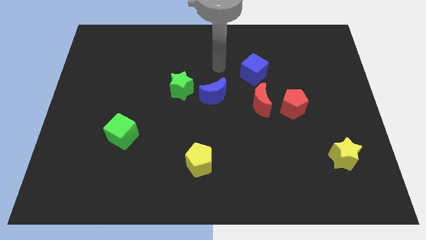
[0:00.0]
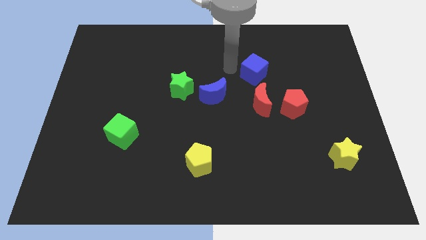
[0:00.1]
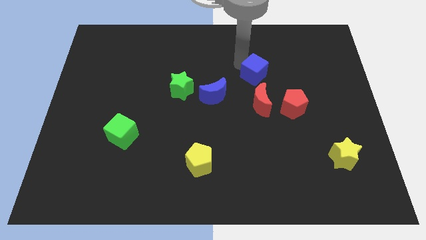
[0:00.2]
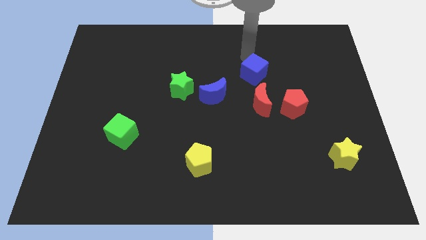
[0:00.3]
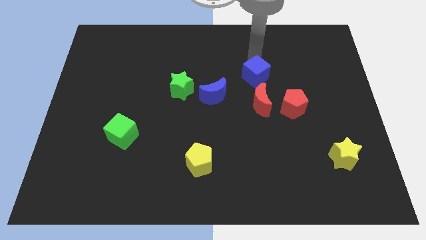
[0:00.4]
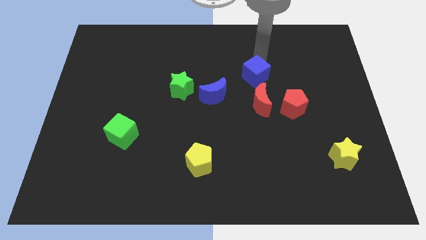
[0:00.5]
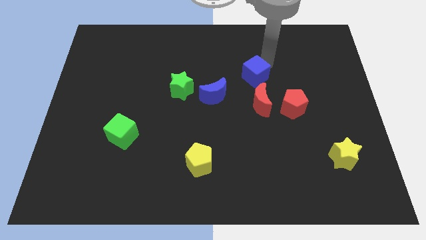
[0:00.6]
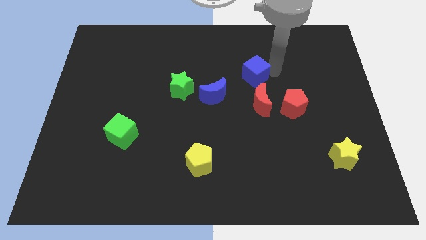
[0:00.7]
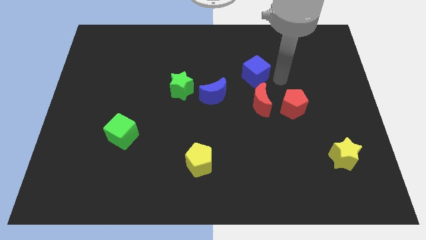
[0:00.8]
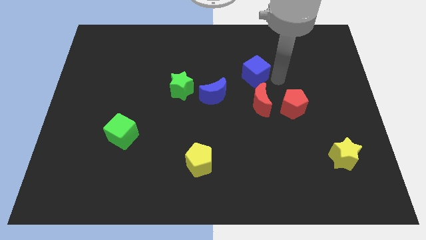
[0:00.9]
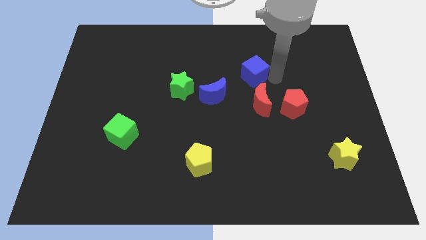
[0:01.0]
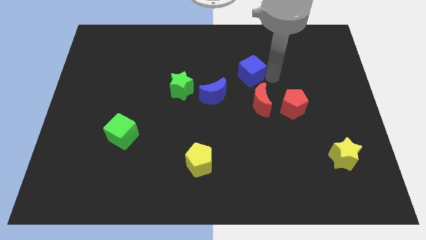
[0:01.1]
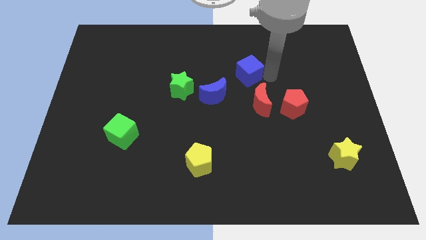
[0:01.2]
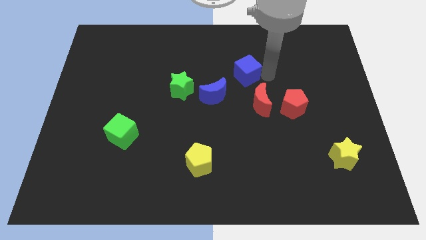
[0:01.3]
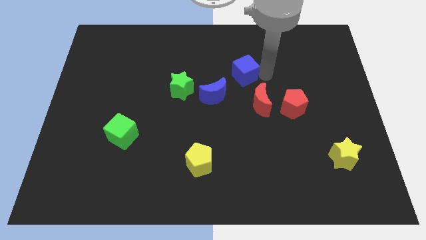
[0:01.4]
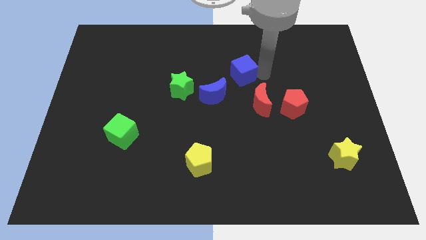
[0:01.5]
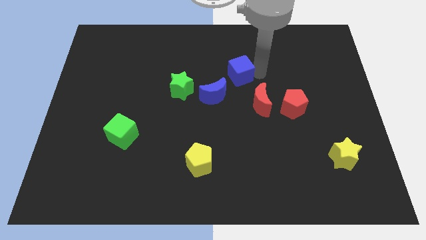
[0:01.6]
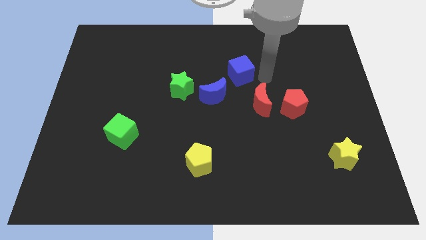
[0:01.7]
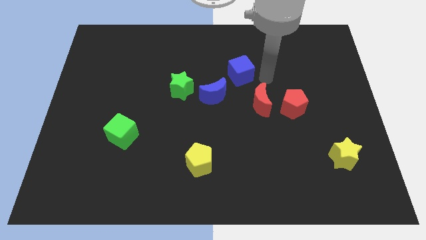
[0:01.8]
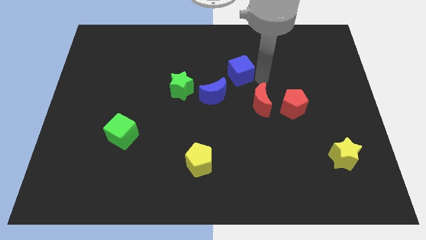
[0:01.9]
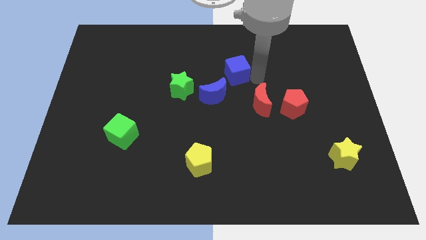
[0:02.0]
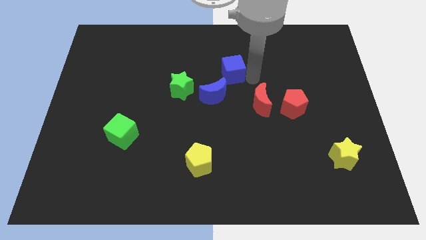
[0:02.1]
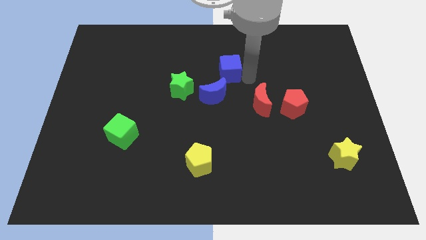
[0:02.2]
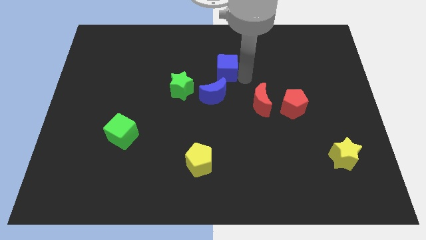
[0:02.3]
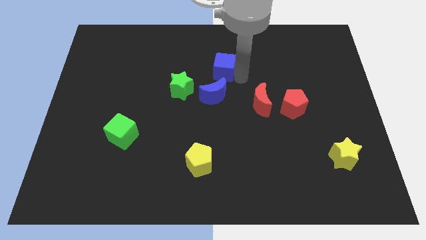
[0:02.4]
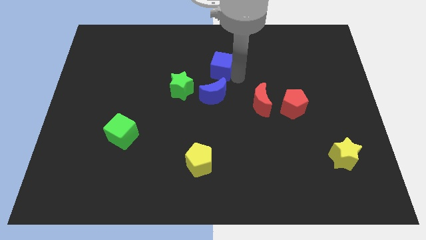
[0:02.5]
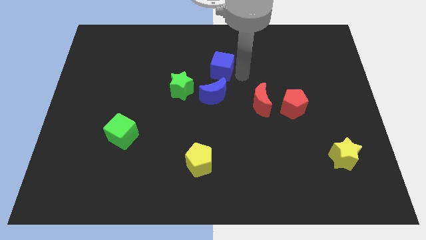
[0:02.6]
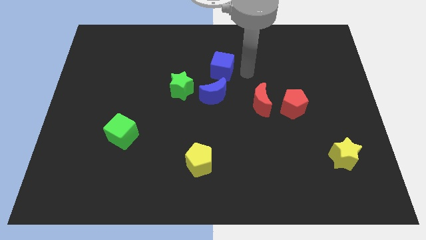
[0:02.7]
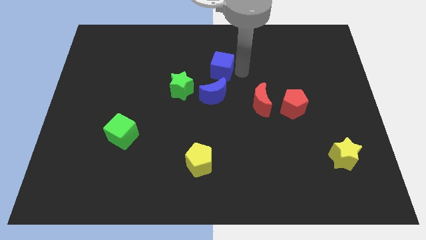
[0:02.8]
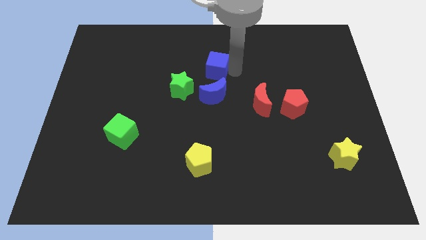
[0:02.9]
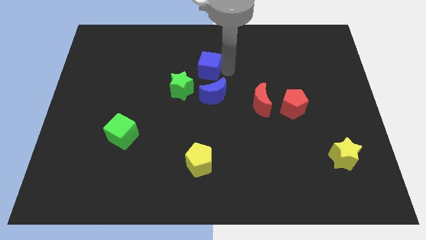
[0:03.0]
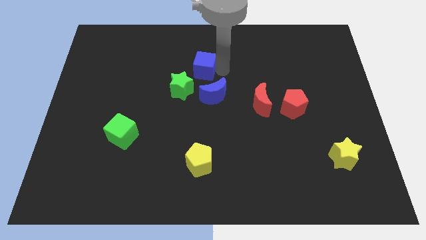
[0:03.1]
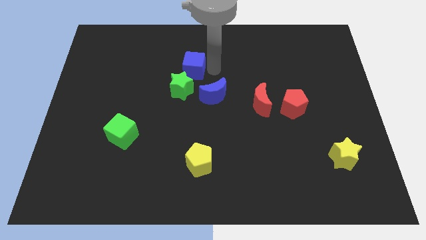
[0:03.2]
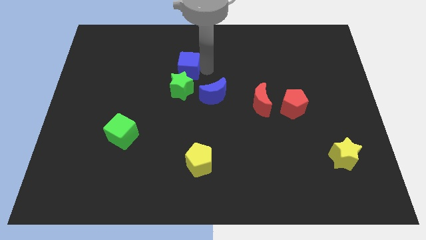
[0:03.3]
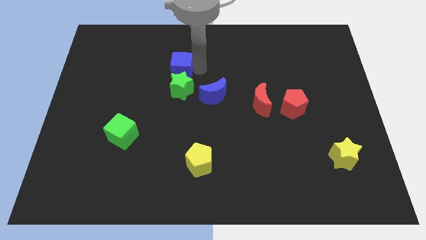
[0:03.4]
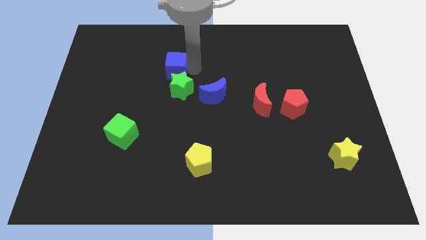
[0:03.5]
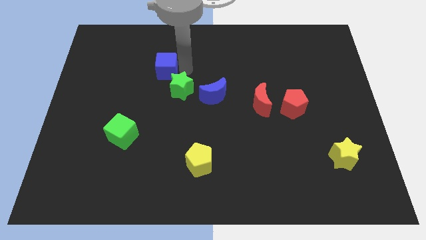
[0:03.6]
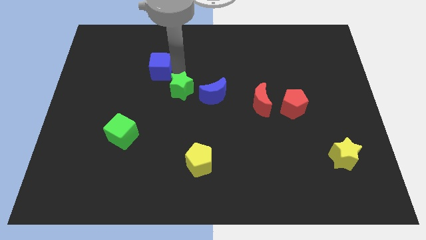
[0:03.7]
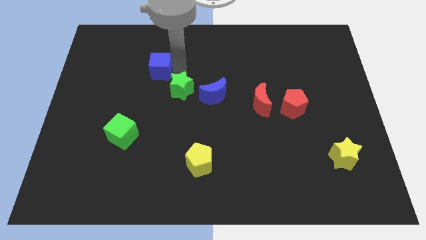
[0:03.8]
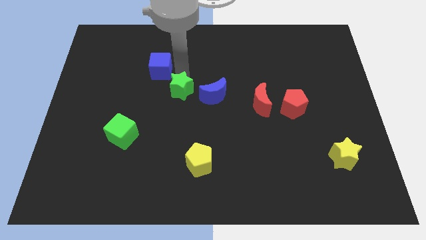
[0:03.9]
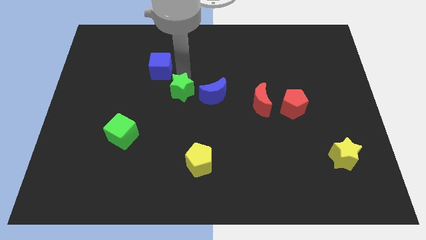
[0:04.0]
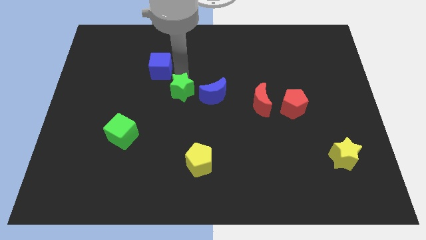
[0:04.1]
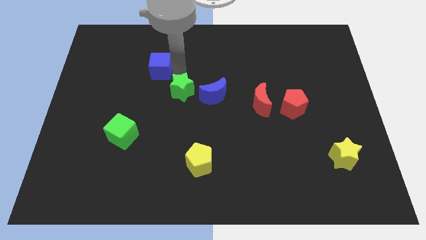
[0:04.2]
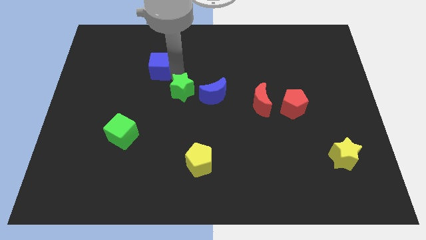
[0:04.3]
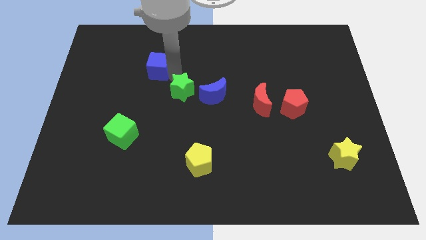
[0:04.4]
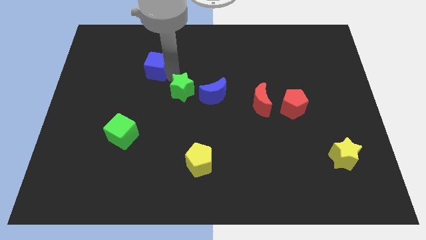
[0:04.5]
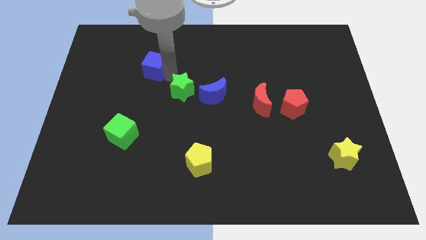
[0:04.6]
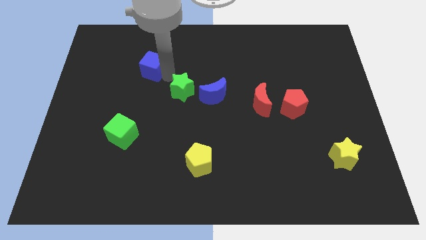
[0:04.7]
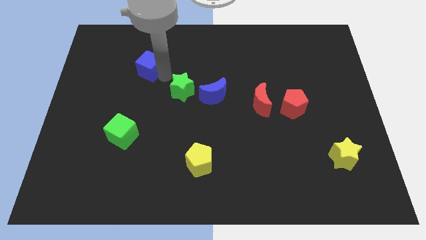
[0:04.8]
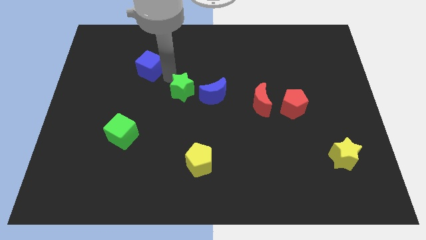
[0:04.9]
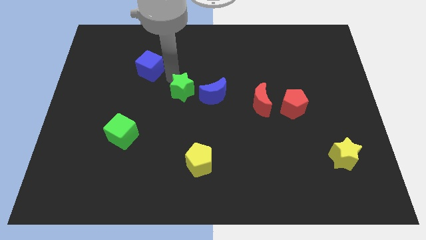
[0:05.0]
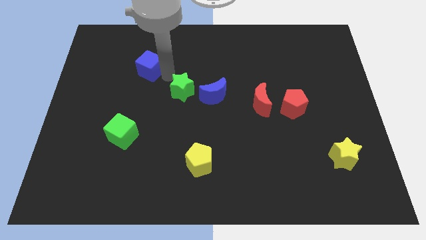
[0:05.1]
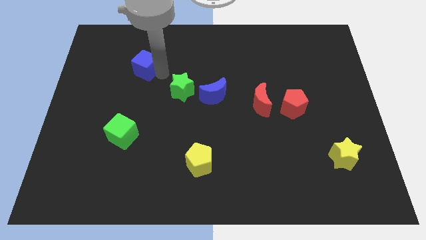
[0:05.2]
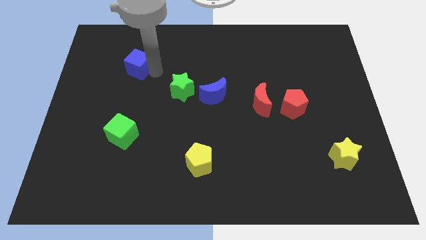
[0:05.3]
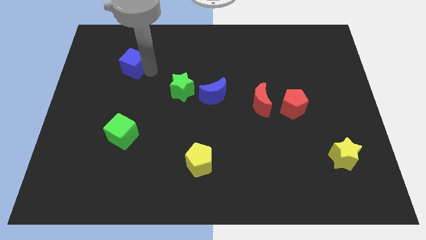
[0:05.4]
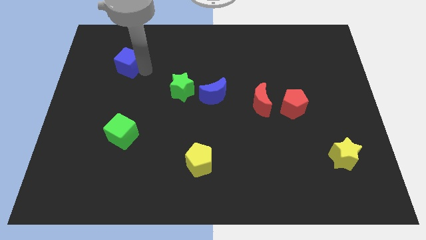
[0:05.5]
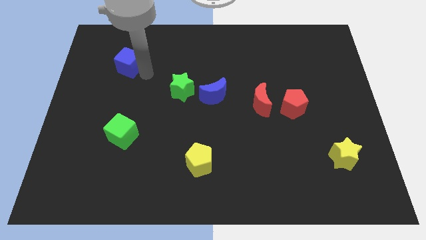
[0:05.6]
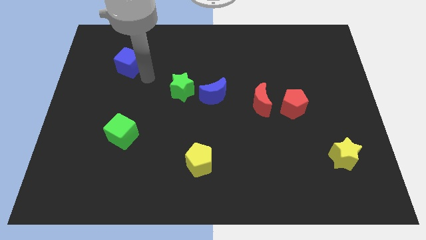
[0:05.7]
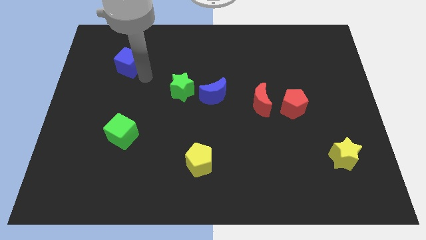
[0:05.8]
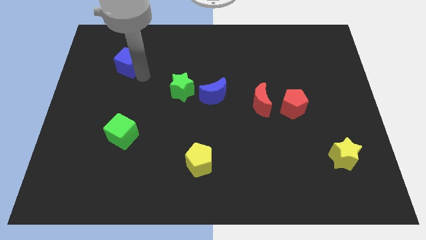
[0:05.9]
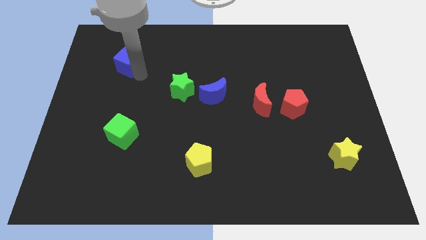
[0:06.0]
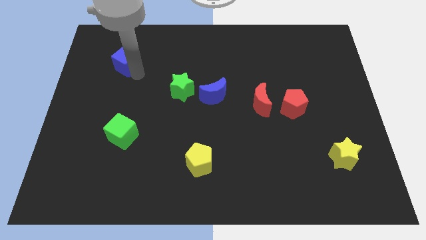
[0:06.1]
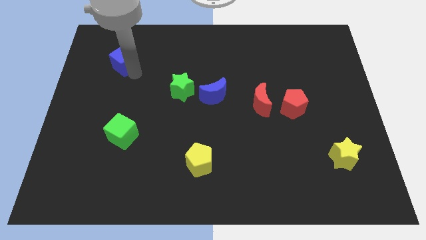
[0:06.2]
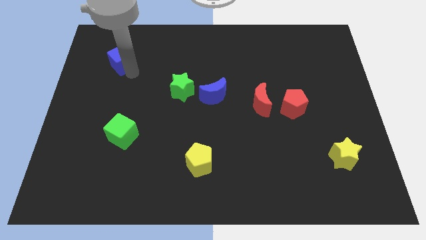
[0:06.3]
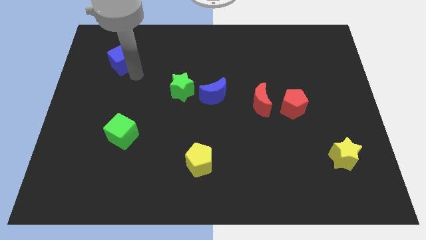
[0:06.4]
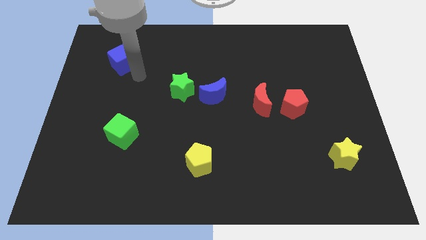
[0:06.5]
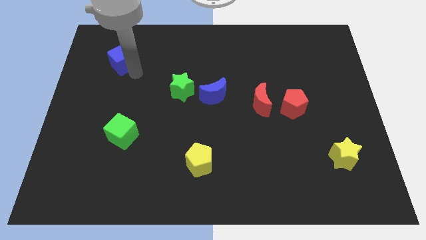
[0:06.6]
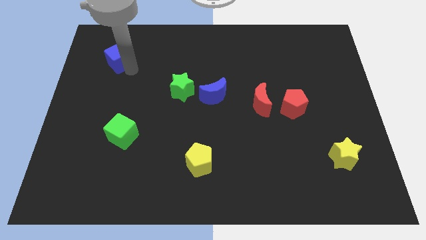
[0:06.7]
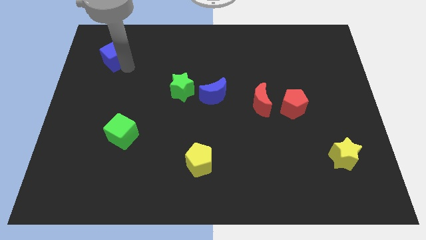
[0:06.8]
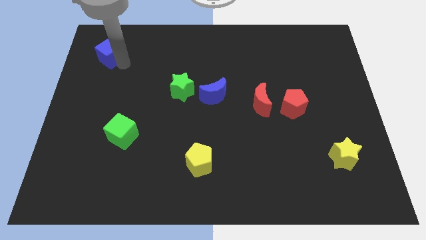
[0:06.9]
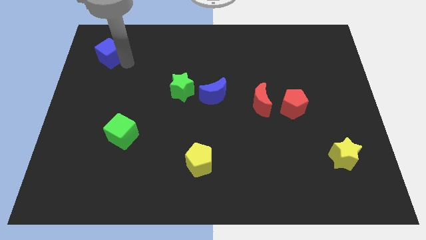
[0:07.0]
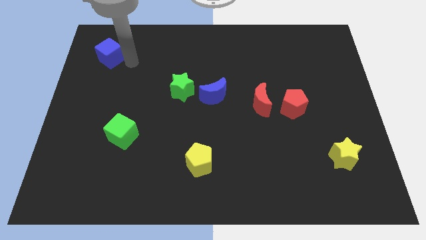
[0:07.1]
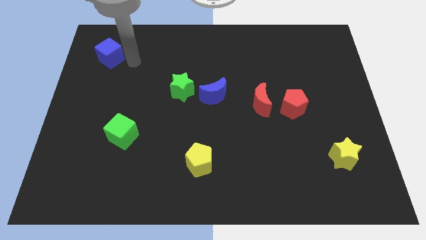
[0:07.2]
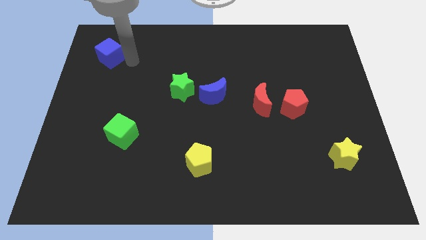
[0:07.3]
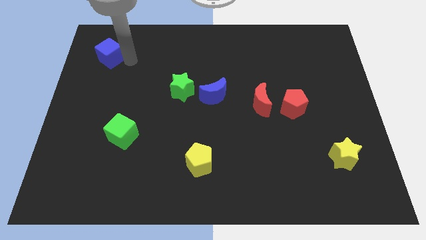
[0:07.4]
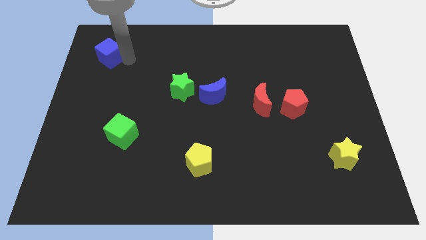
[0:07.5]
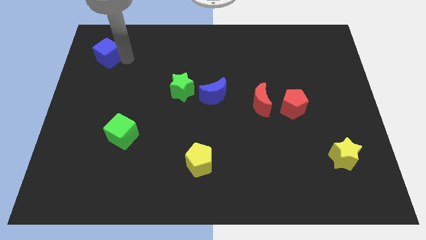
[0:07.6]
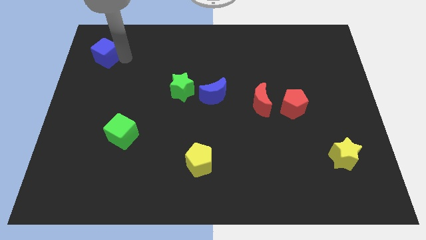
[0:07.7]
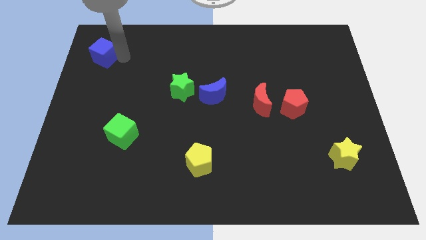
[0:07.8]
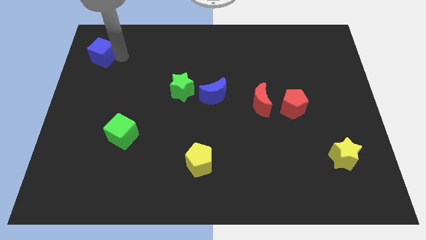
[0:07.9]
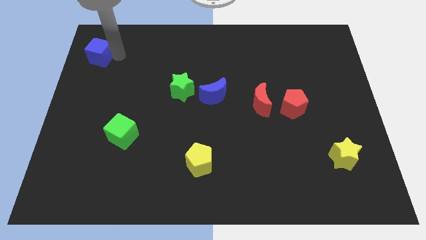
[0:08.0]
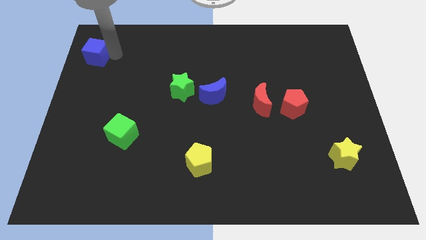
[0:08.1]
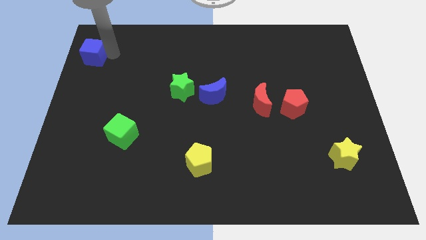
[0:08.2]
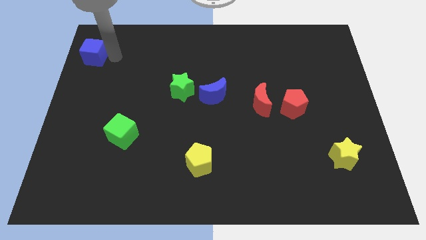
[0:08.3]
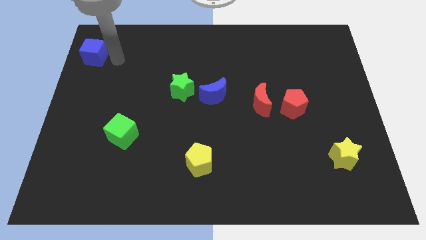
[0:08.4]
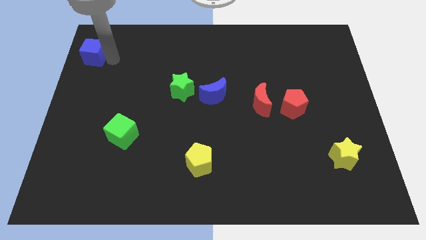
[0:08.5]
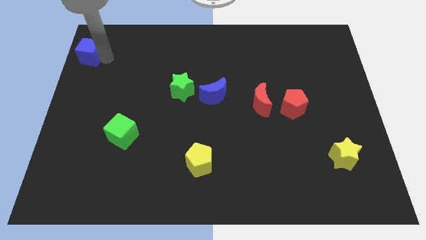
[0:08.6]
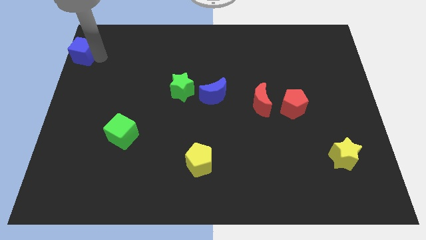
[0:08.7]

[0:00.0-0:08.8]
move the blue cube to the top left of the board
